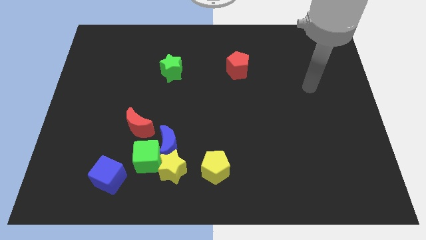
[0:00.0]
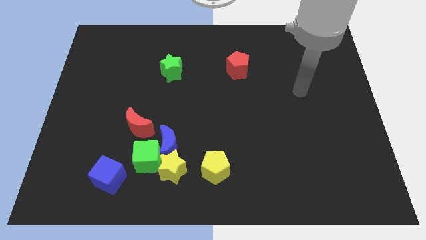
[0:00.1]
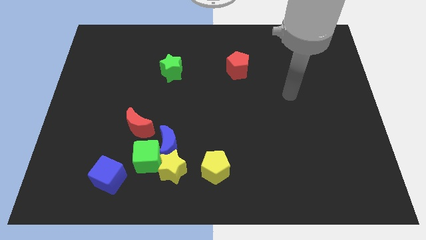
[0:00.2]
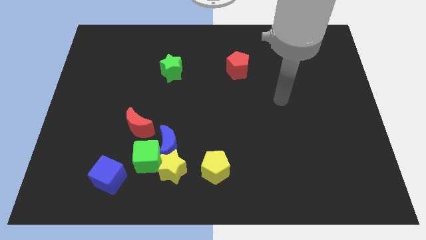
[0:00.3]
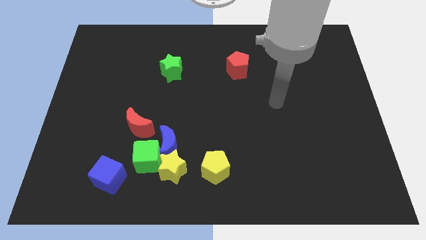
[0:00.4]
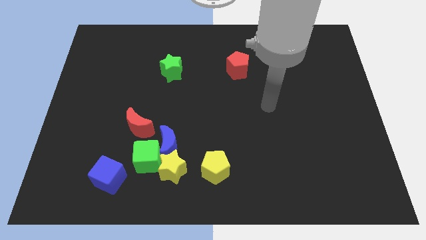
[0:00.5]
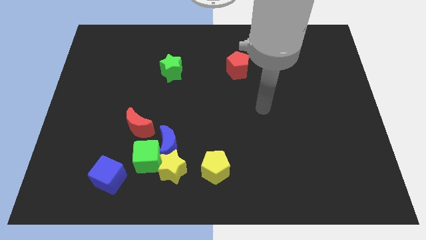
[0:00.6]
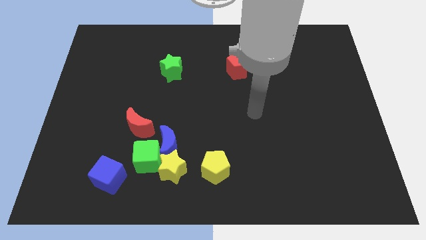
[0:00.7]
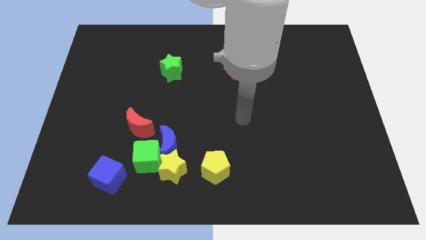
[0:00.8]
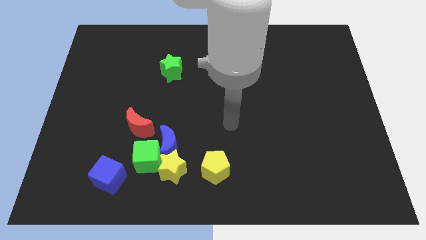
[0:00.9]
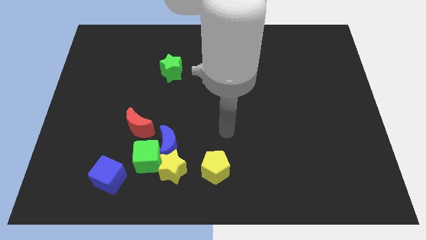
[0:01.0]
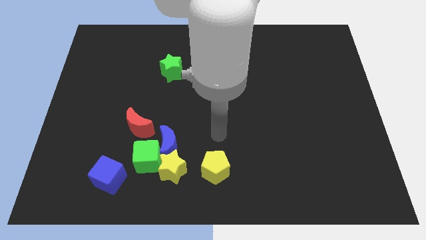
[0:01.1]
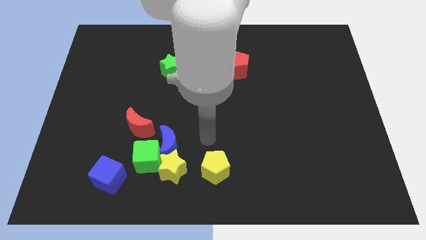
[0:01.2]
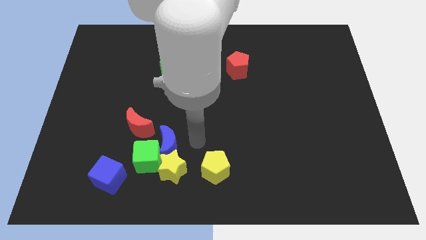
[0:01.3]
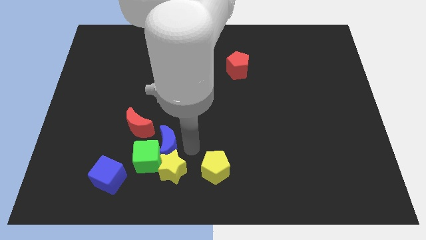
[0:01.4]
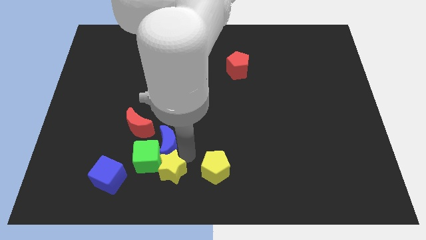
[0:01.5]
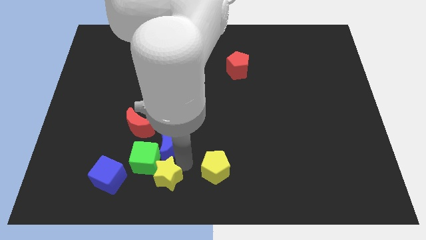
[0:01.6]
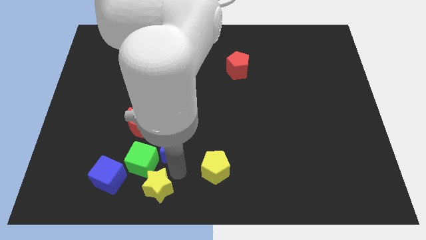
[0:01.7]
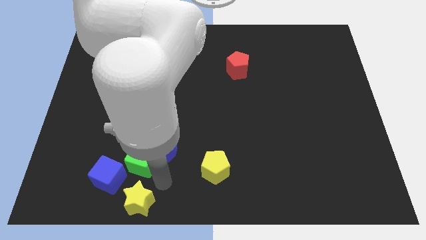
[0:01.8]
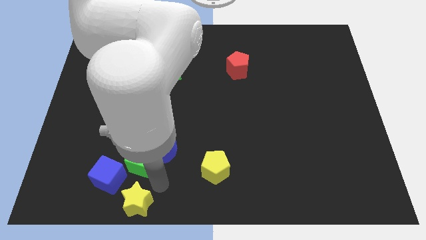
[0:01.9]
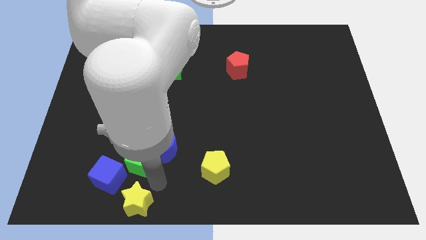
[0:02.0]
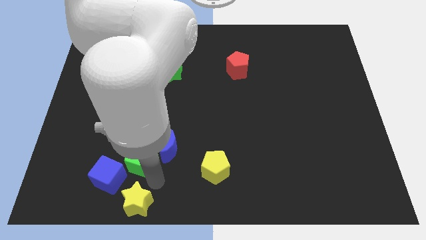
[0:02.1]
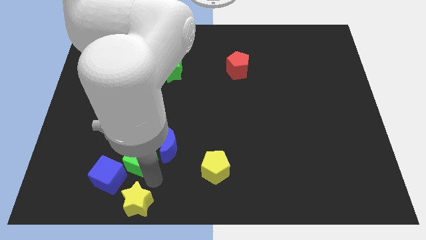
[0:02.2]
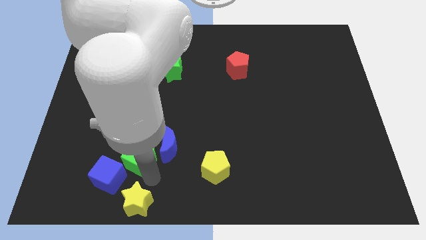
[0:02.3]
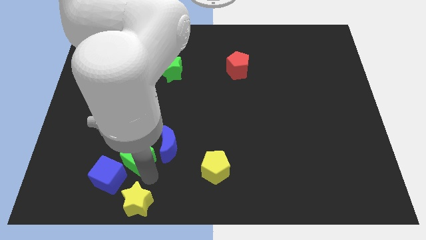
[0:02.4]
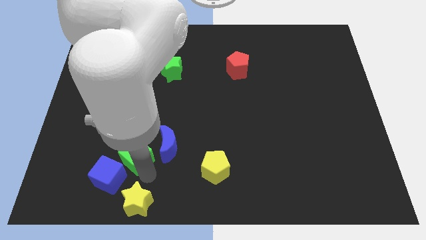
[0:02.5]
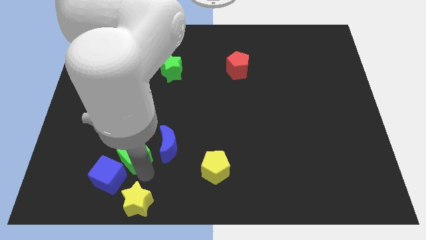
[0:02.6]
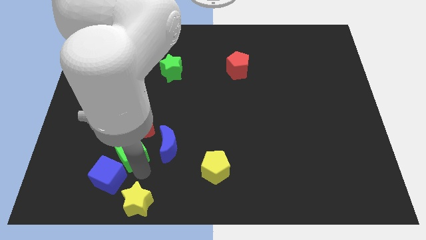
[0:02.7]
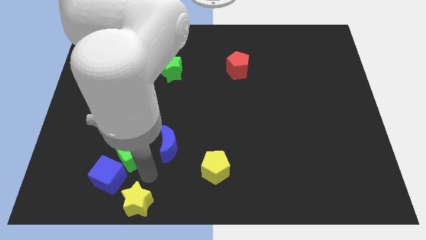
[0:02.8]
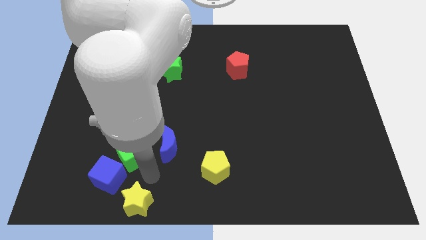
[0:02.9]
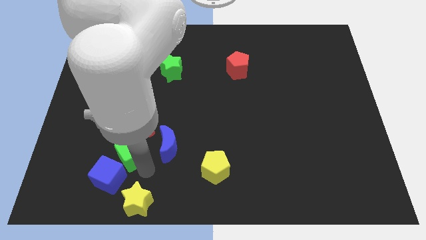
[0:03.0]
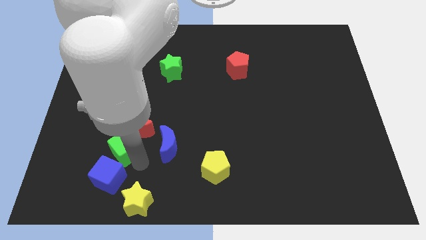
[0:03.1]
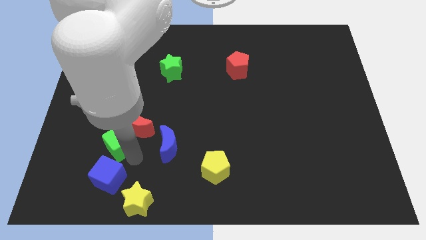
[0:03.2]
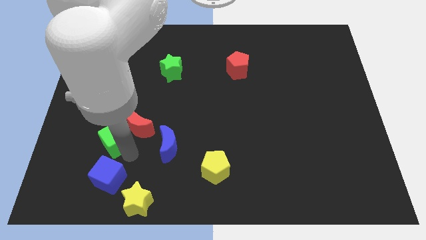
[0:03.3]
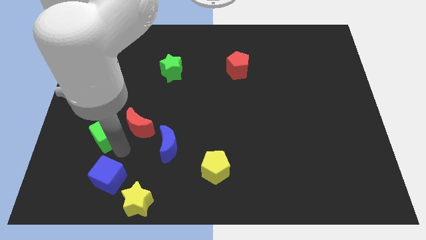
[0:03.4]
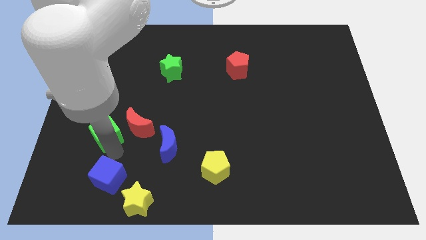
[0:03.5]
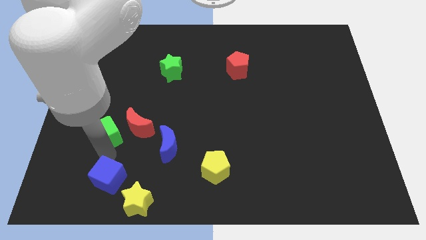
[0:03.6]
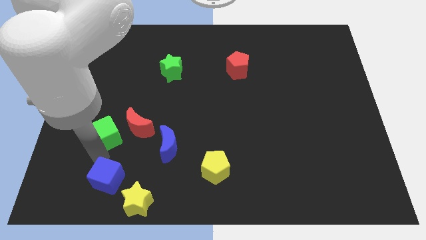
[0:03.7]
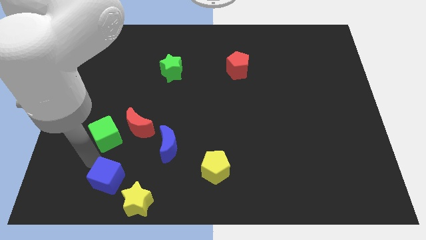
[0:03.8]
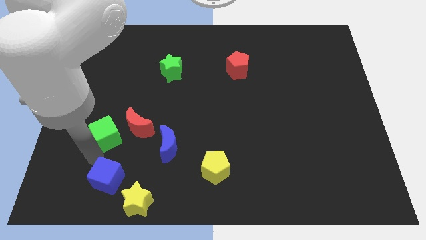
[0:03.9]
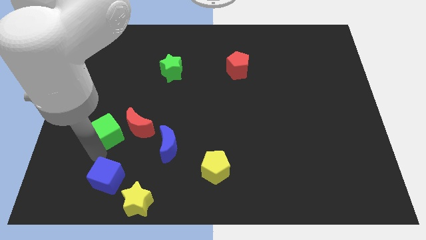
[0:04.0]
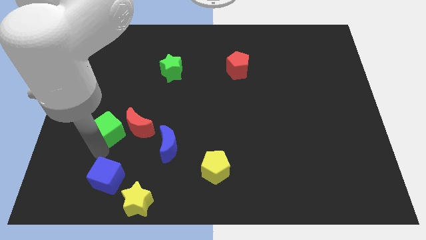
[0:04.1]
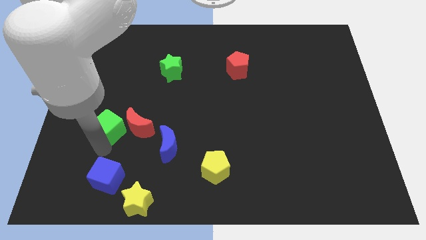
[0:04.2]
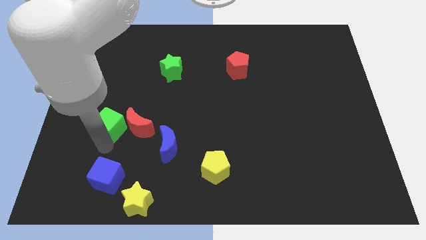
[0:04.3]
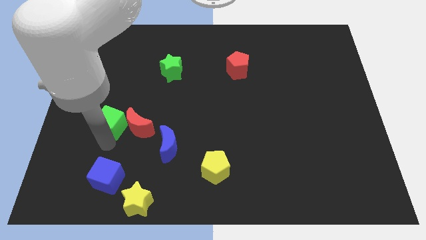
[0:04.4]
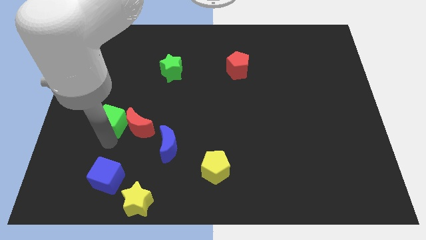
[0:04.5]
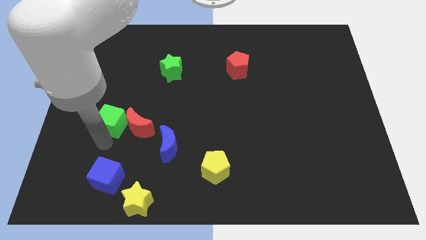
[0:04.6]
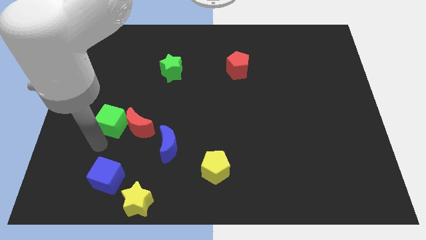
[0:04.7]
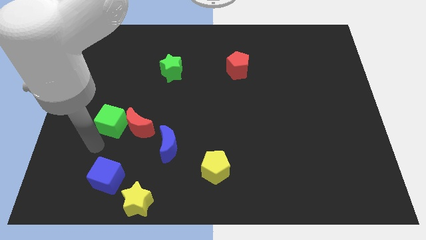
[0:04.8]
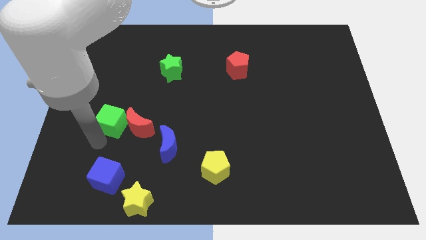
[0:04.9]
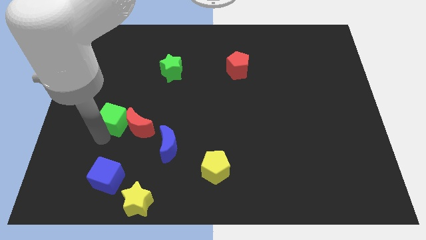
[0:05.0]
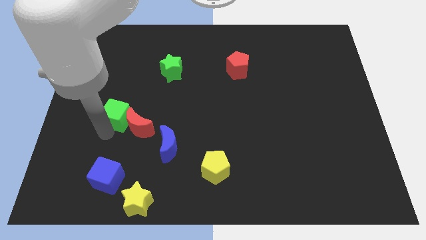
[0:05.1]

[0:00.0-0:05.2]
slide the green cube somewhat up

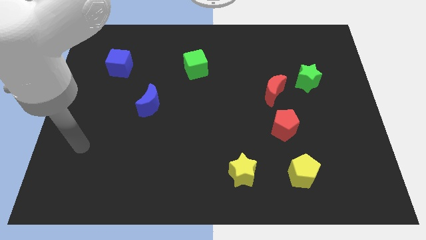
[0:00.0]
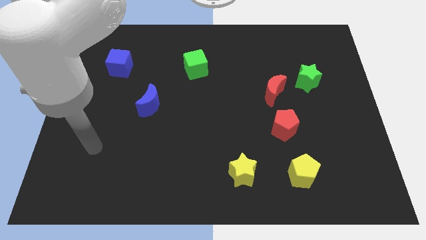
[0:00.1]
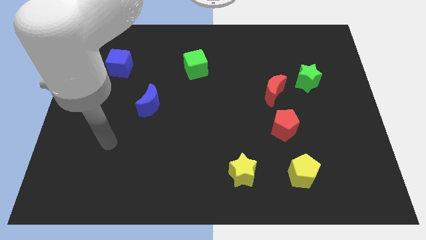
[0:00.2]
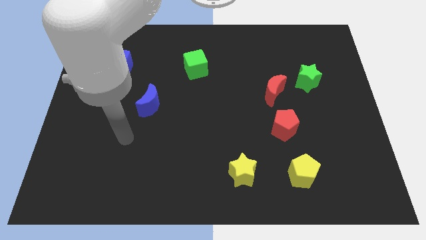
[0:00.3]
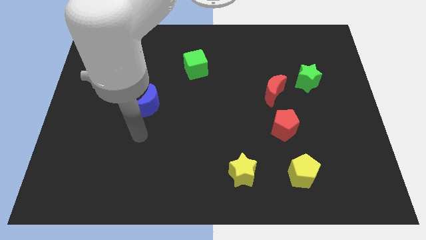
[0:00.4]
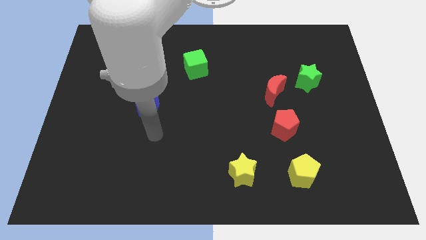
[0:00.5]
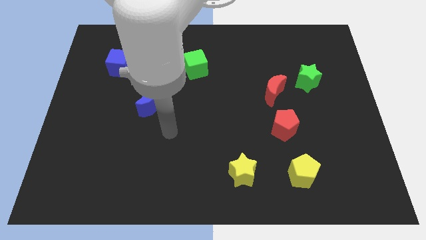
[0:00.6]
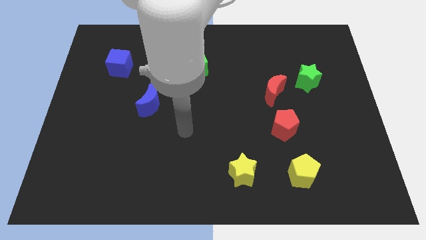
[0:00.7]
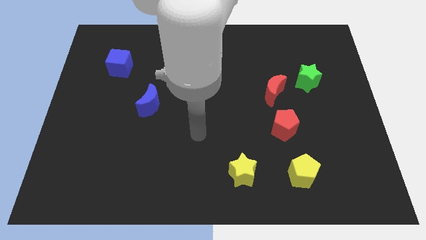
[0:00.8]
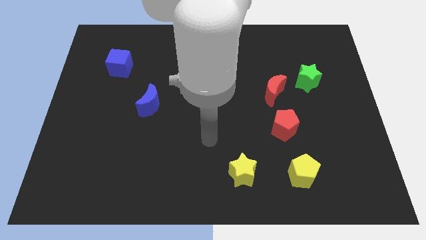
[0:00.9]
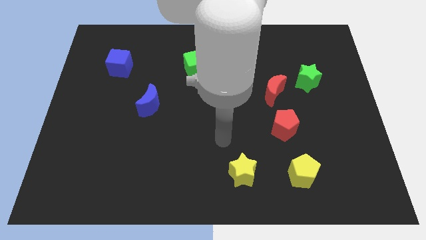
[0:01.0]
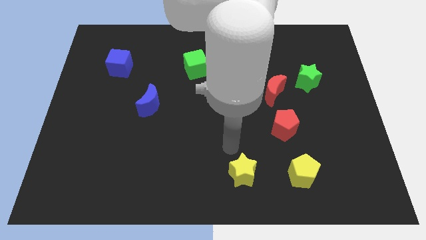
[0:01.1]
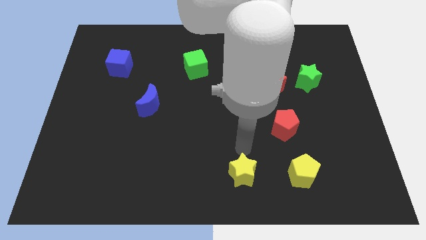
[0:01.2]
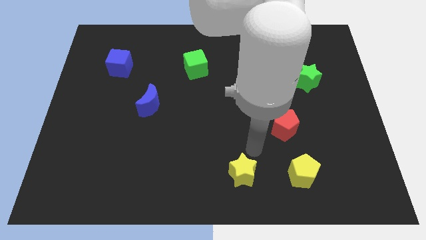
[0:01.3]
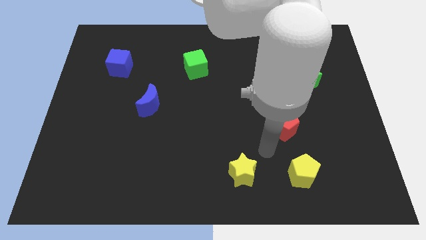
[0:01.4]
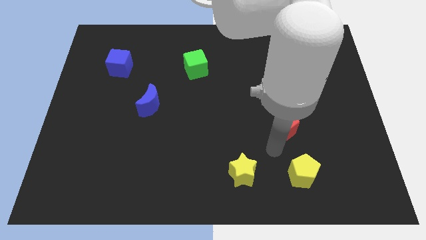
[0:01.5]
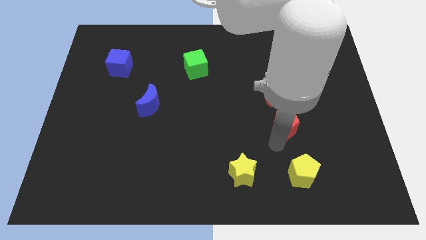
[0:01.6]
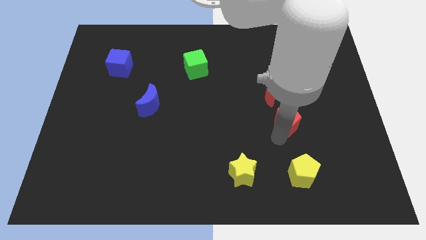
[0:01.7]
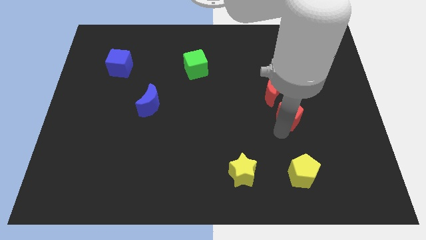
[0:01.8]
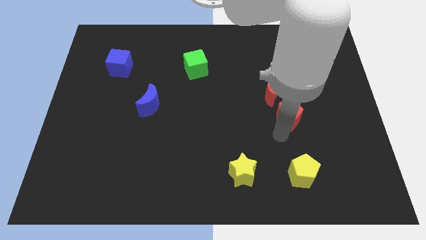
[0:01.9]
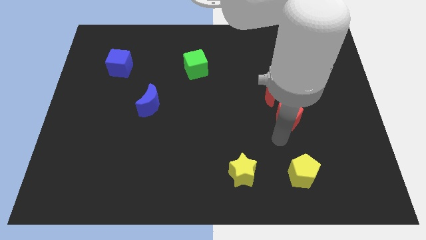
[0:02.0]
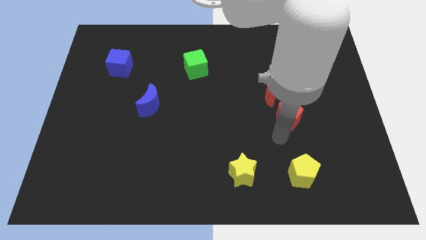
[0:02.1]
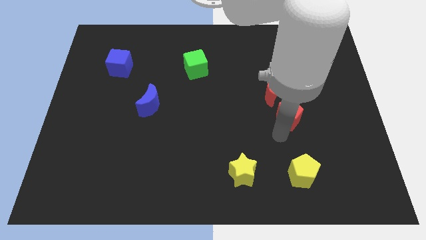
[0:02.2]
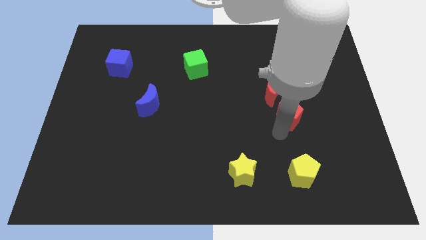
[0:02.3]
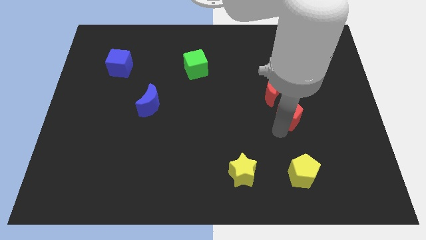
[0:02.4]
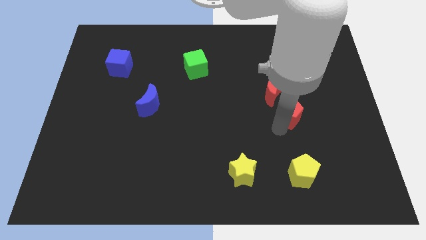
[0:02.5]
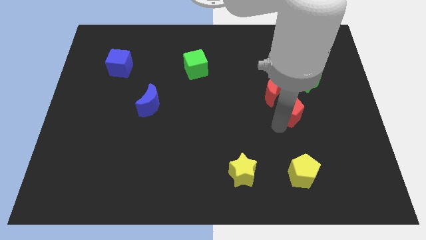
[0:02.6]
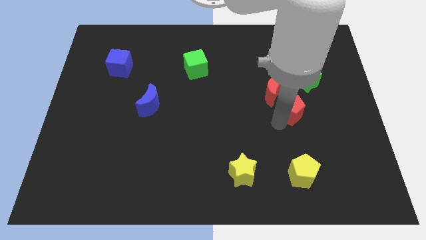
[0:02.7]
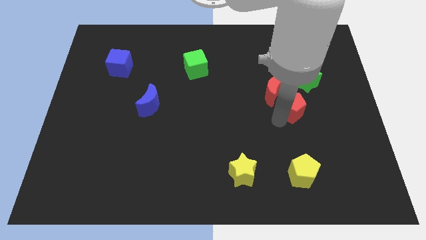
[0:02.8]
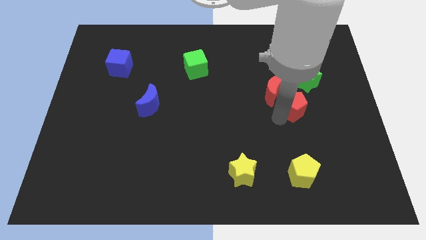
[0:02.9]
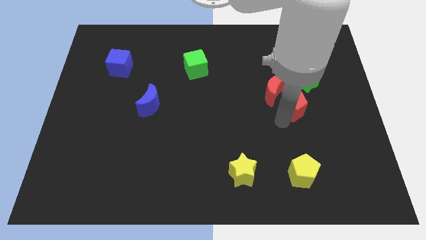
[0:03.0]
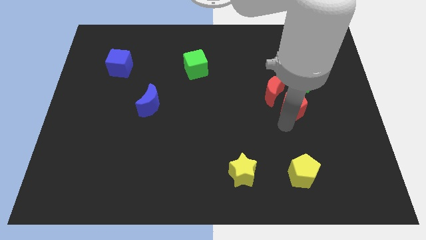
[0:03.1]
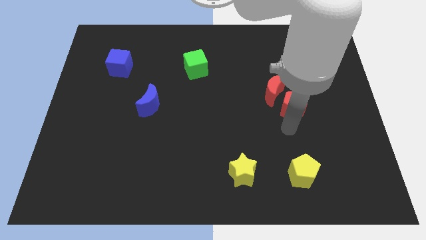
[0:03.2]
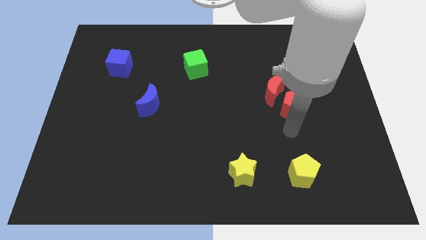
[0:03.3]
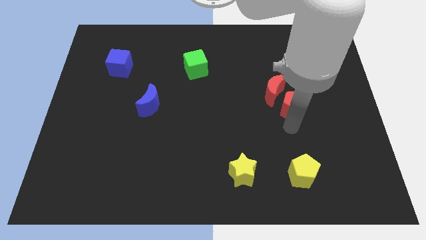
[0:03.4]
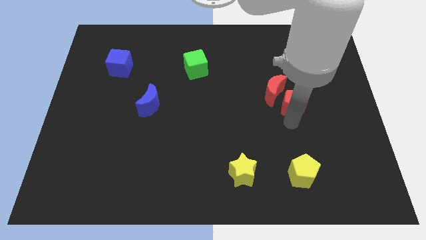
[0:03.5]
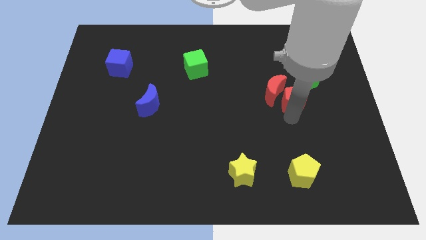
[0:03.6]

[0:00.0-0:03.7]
slightly push the red pentagon up
